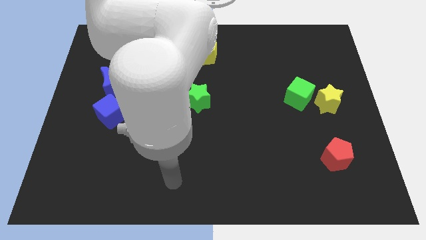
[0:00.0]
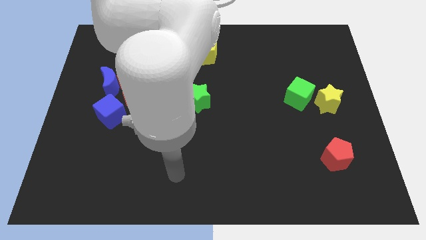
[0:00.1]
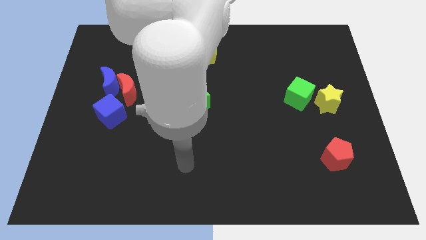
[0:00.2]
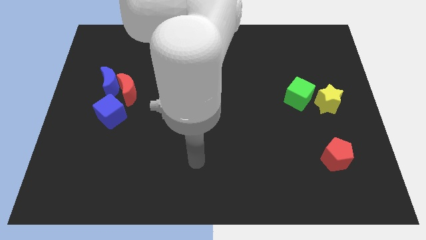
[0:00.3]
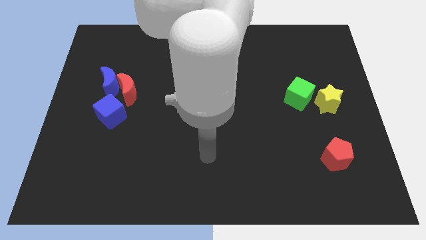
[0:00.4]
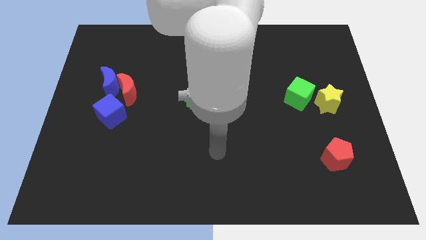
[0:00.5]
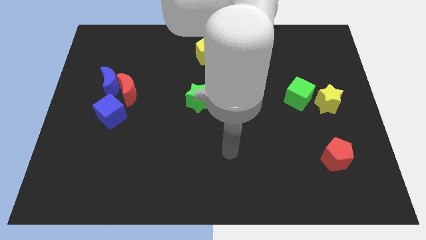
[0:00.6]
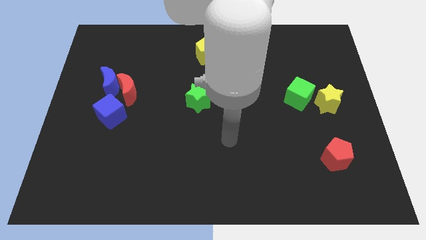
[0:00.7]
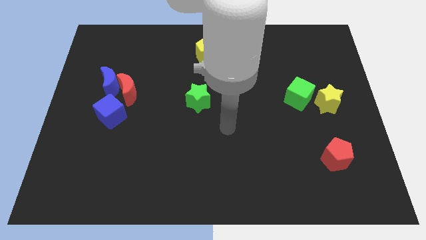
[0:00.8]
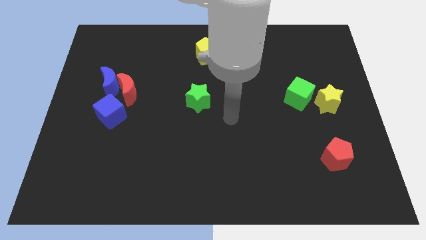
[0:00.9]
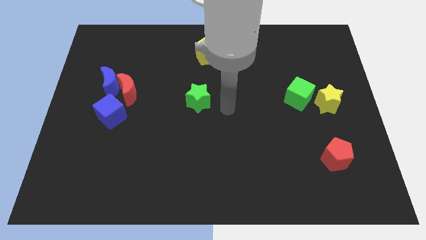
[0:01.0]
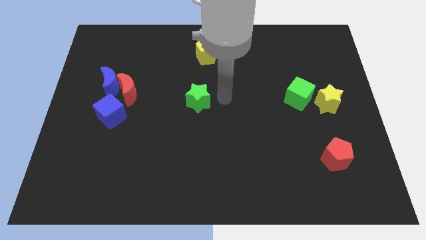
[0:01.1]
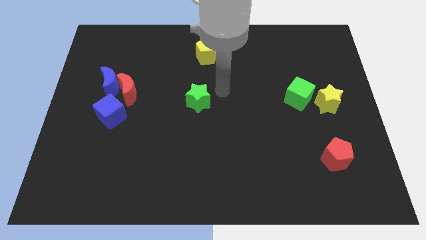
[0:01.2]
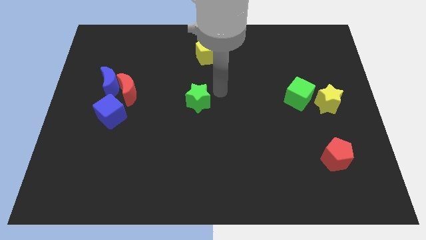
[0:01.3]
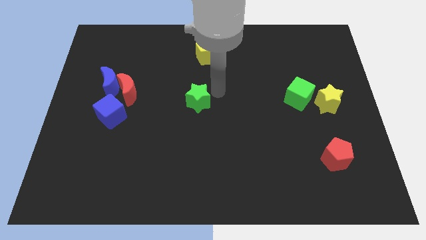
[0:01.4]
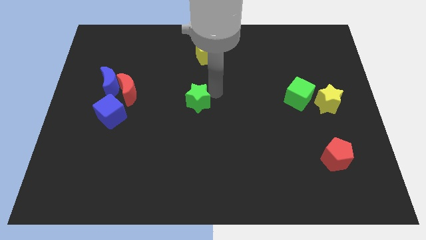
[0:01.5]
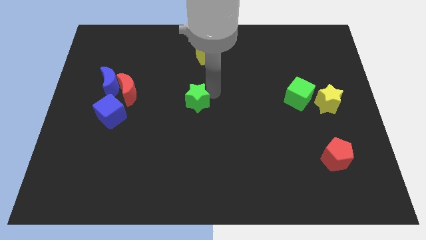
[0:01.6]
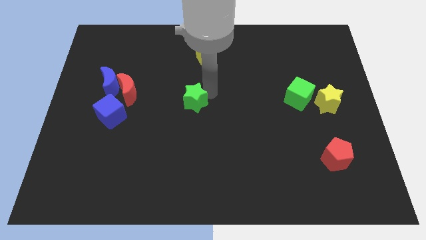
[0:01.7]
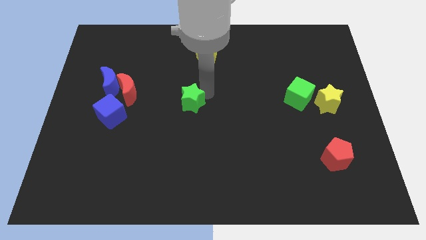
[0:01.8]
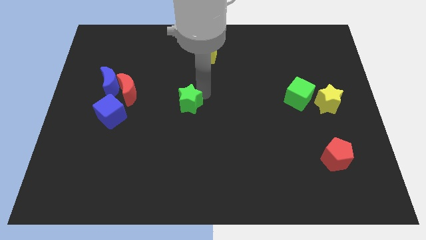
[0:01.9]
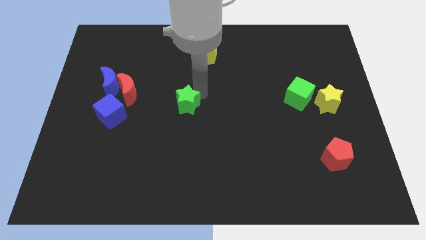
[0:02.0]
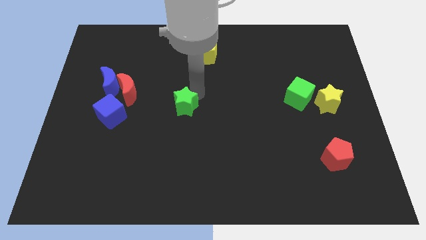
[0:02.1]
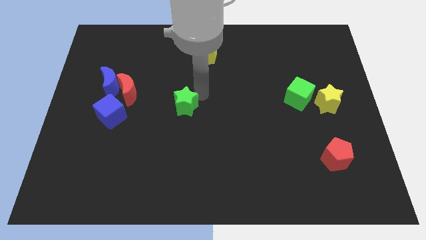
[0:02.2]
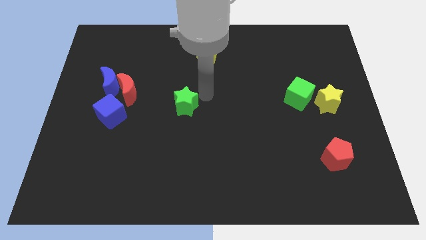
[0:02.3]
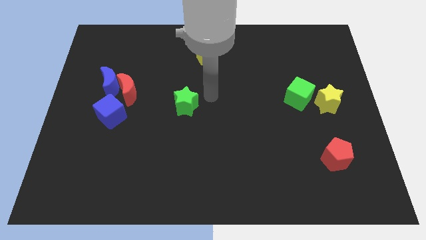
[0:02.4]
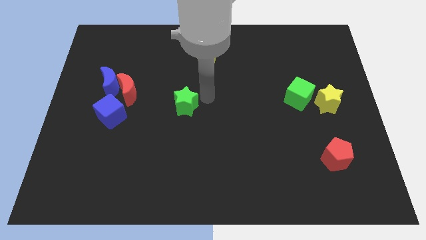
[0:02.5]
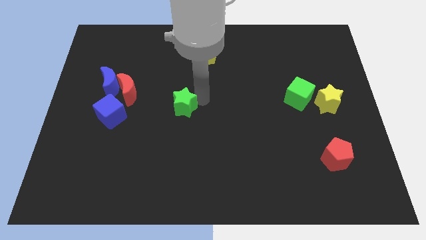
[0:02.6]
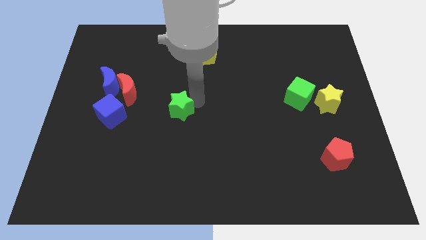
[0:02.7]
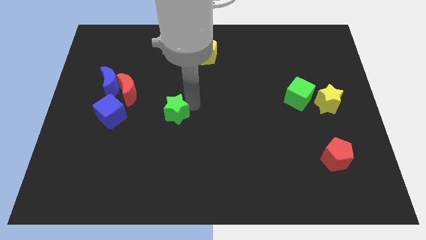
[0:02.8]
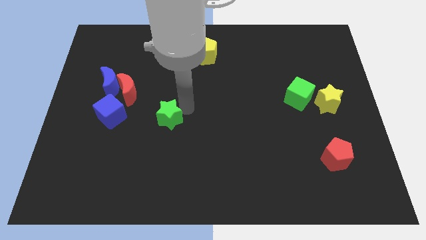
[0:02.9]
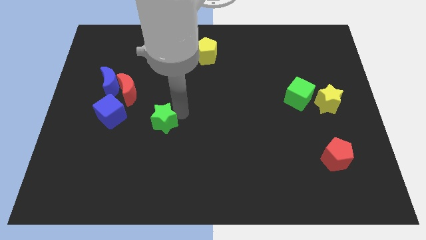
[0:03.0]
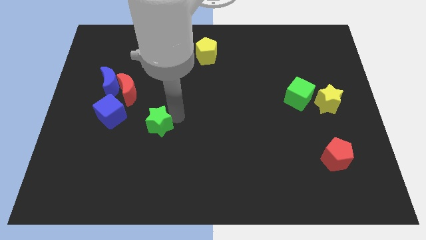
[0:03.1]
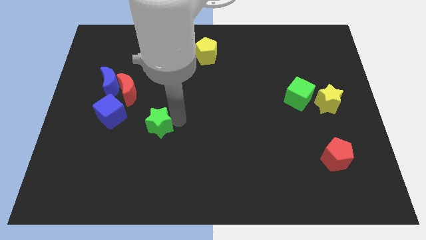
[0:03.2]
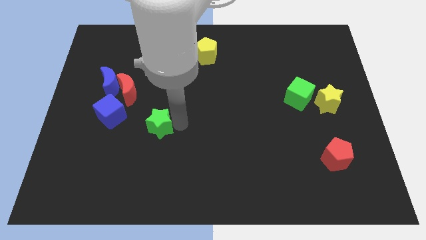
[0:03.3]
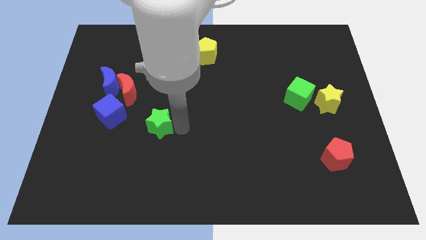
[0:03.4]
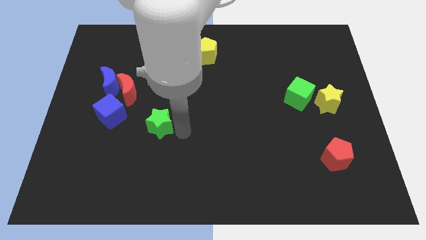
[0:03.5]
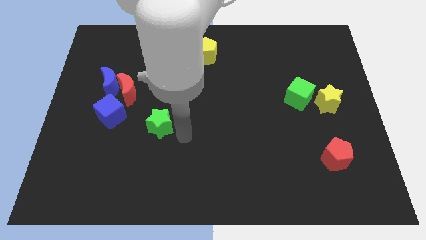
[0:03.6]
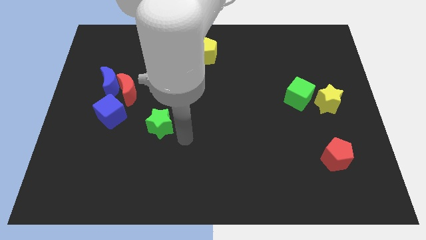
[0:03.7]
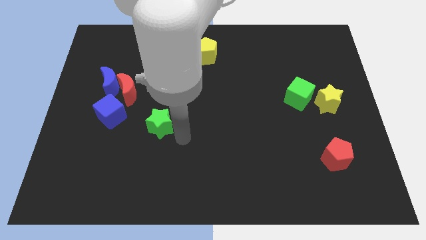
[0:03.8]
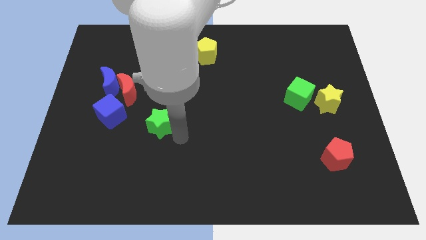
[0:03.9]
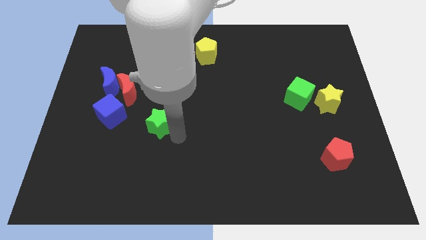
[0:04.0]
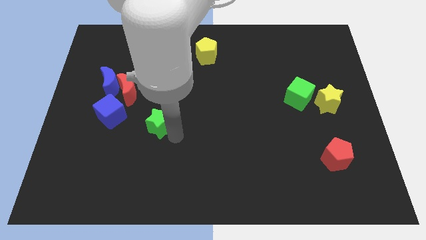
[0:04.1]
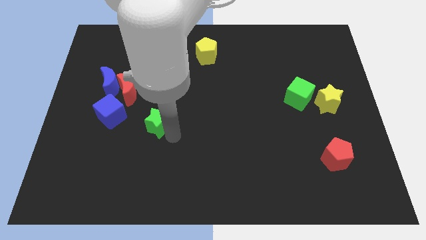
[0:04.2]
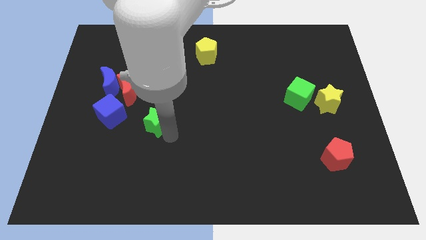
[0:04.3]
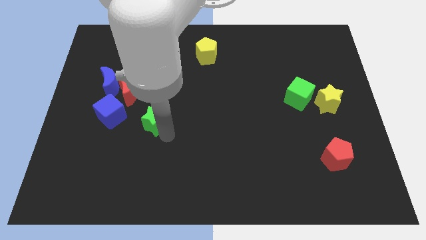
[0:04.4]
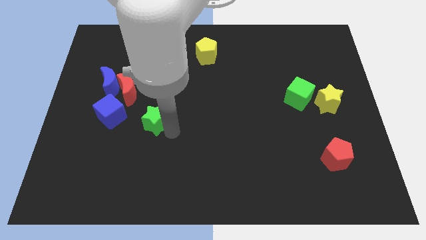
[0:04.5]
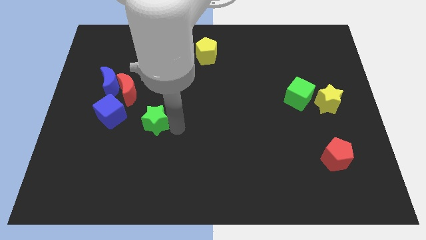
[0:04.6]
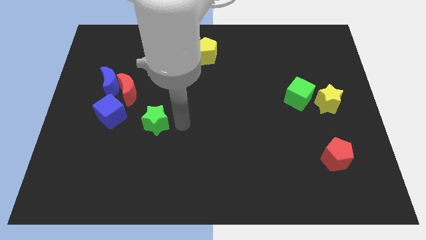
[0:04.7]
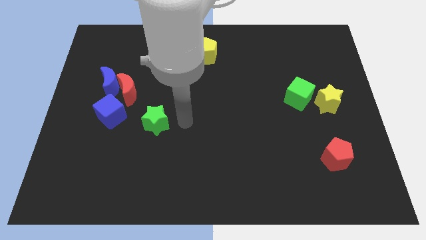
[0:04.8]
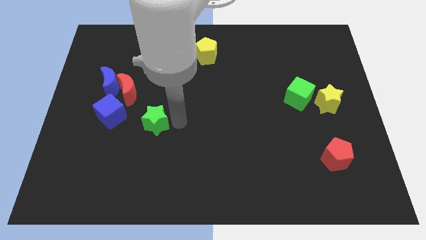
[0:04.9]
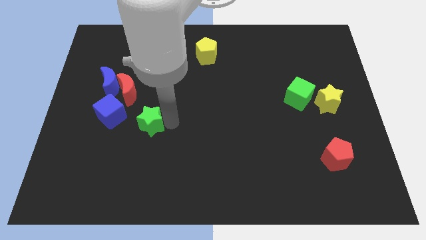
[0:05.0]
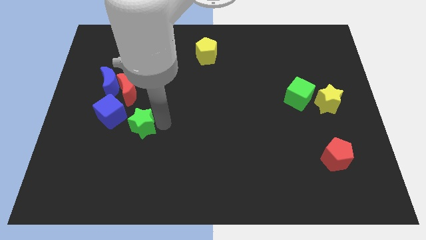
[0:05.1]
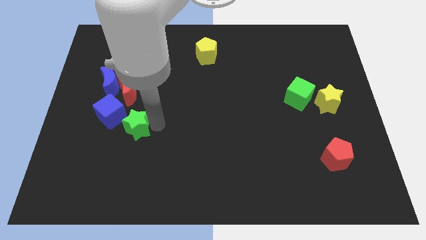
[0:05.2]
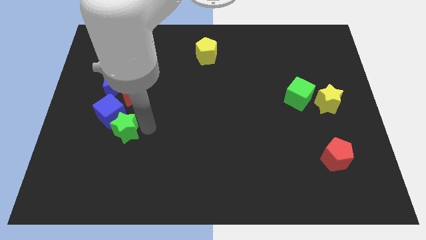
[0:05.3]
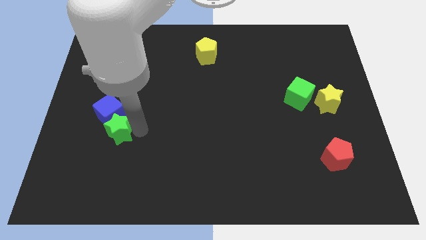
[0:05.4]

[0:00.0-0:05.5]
move the green star to the bottom of the blue moon

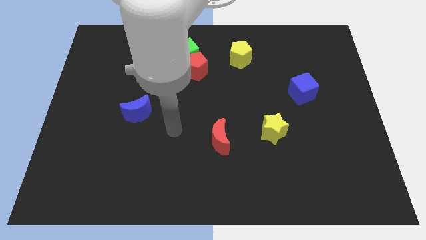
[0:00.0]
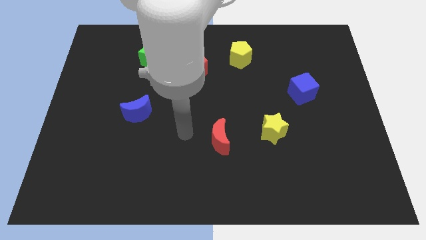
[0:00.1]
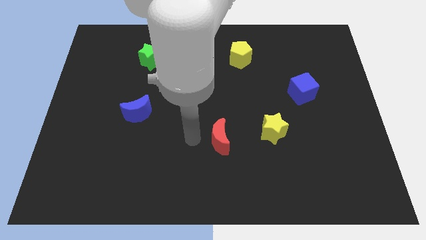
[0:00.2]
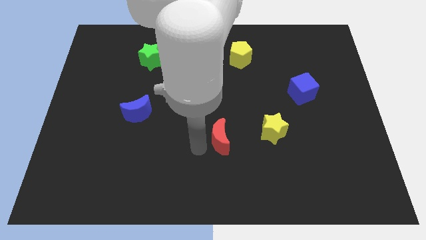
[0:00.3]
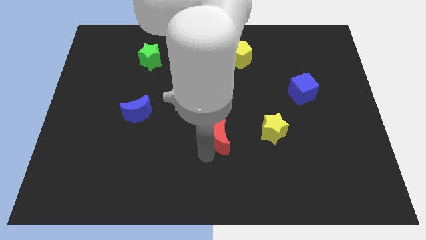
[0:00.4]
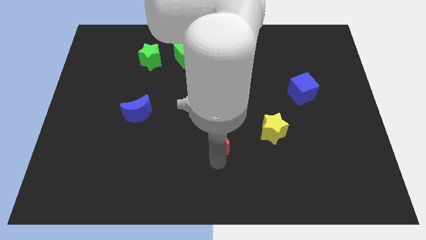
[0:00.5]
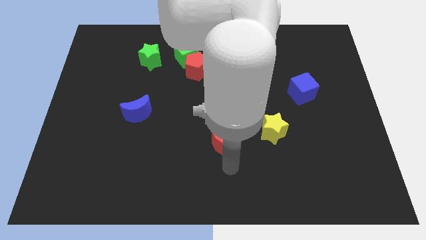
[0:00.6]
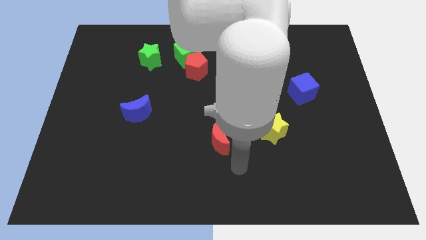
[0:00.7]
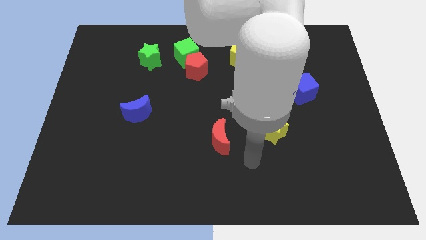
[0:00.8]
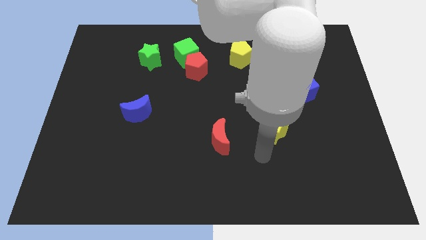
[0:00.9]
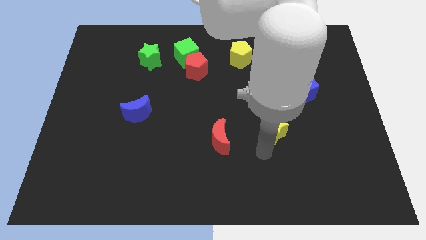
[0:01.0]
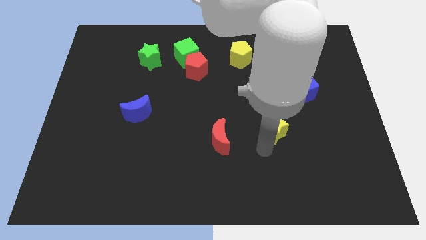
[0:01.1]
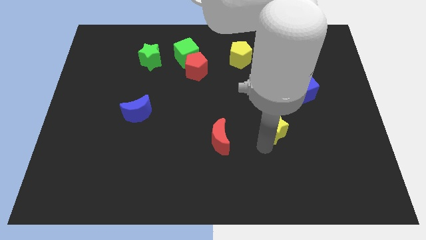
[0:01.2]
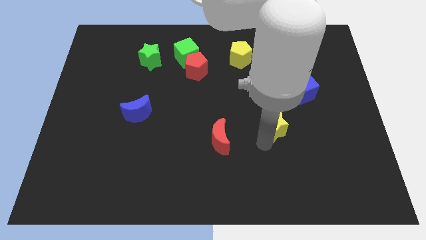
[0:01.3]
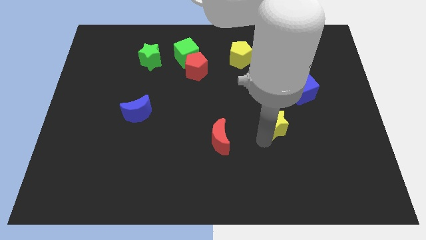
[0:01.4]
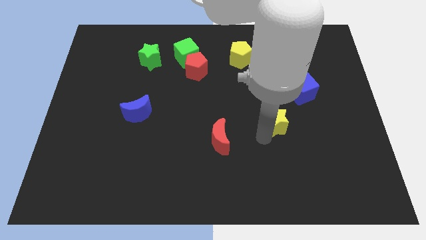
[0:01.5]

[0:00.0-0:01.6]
slide the yellow star diagonally down and to the left of the blue cube

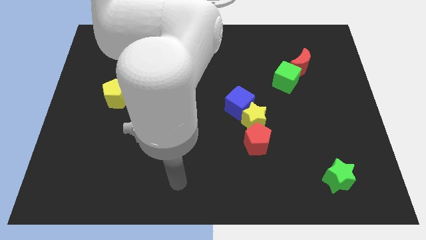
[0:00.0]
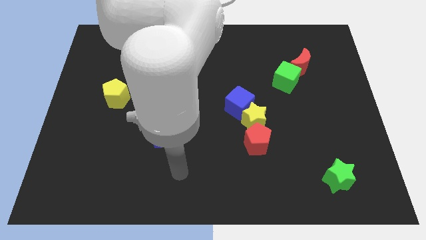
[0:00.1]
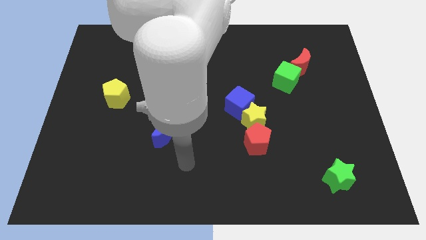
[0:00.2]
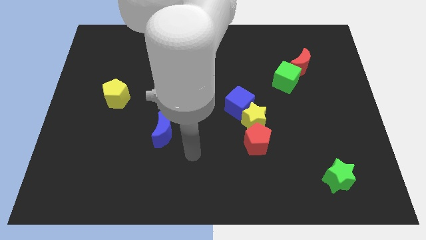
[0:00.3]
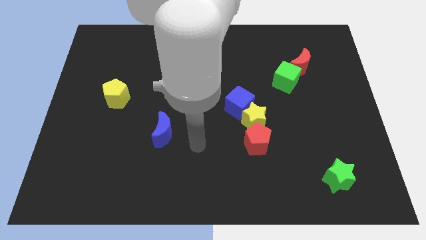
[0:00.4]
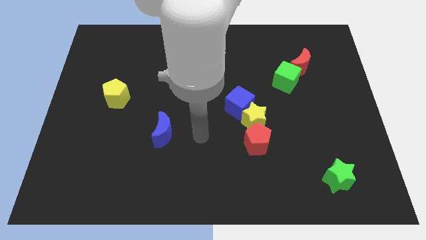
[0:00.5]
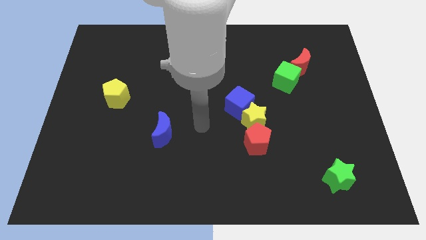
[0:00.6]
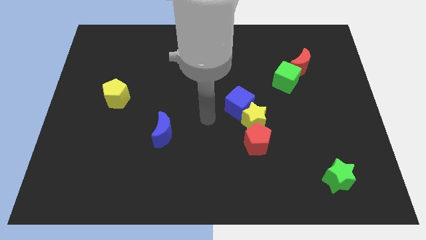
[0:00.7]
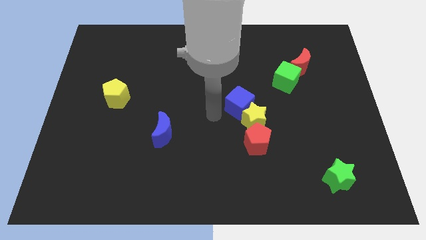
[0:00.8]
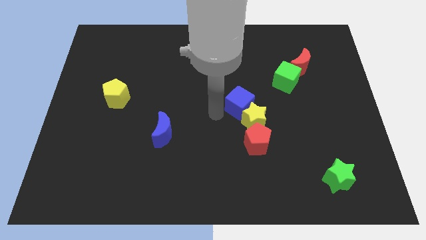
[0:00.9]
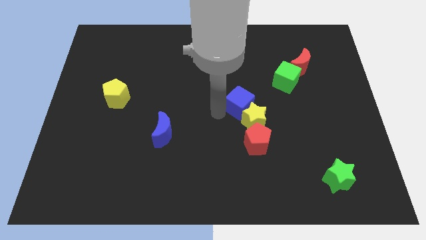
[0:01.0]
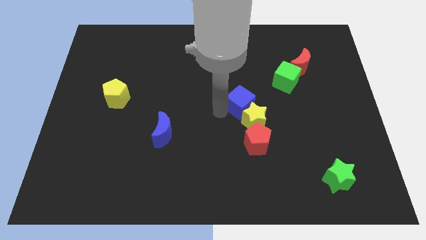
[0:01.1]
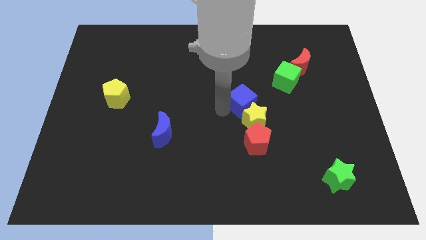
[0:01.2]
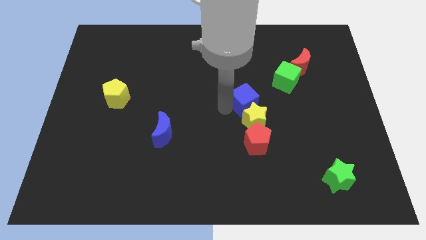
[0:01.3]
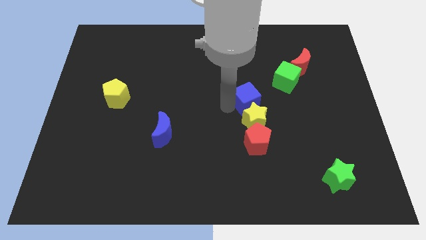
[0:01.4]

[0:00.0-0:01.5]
push the blue cube diagonally down and to the left of the green cube
